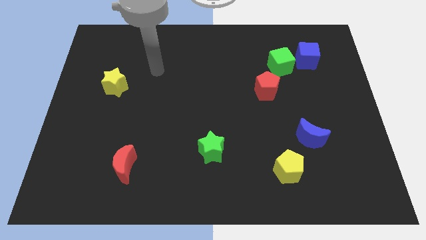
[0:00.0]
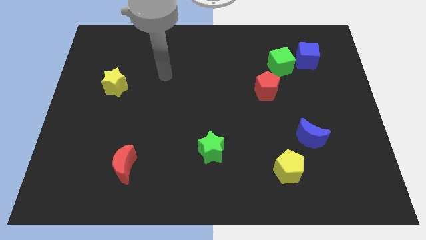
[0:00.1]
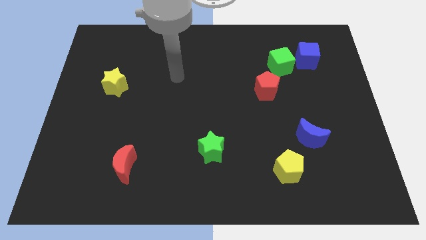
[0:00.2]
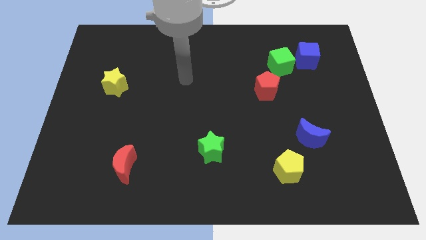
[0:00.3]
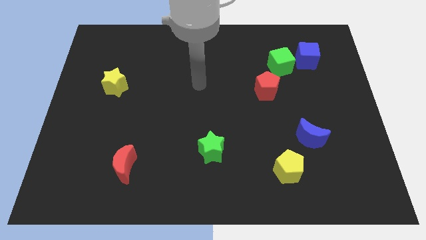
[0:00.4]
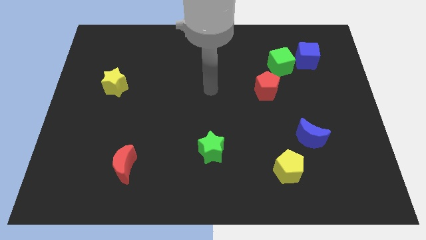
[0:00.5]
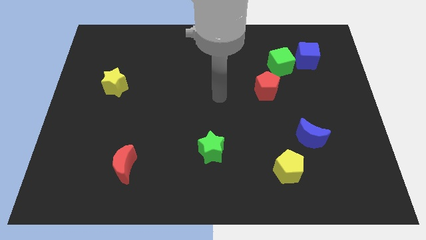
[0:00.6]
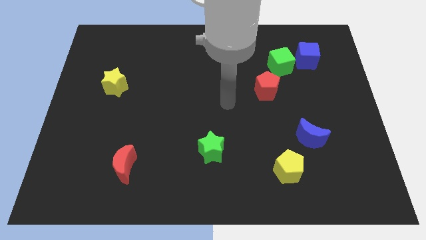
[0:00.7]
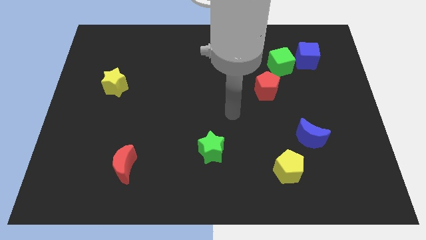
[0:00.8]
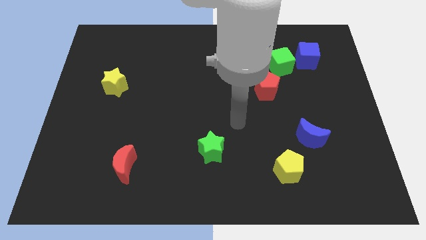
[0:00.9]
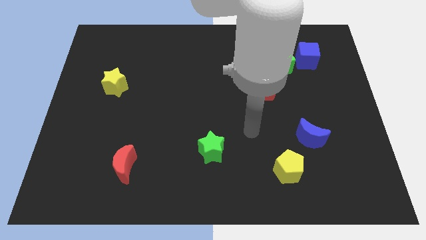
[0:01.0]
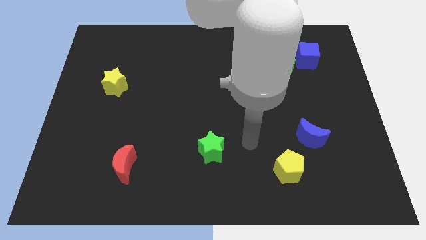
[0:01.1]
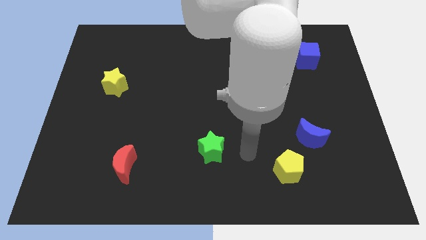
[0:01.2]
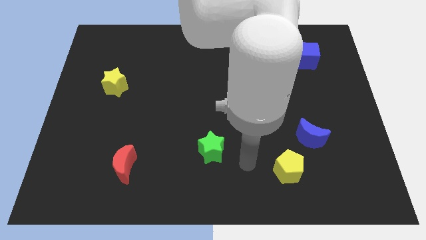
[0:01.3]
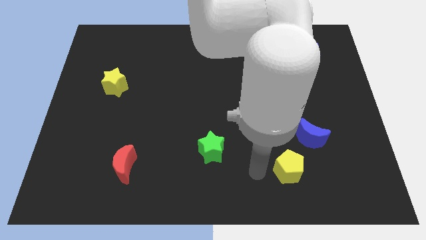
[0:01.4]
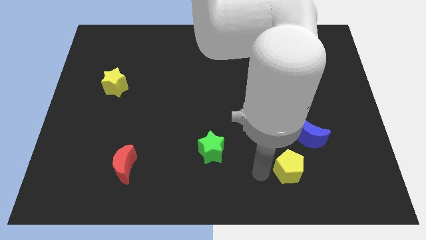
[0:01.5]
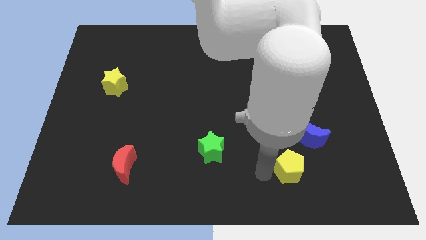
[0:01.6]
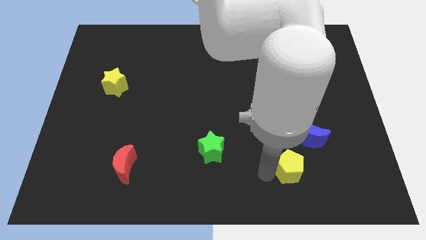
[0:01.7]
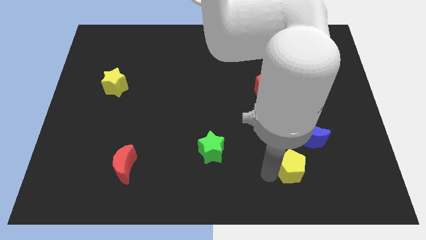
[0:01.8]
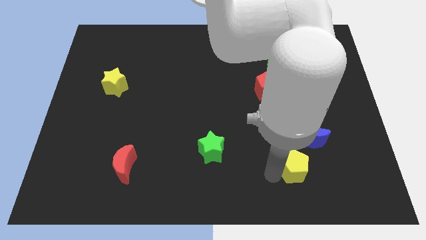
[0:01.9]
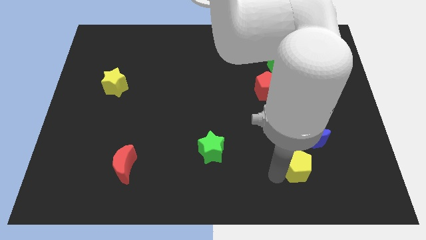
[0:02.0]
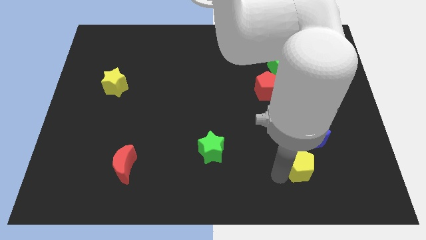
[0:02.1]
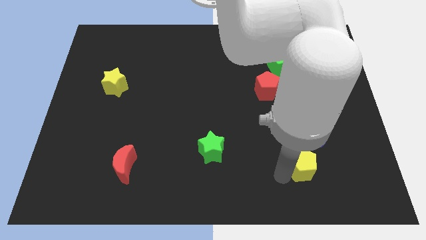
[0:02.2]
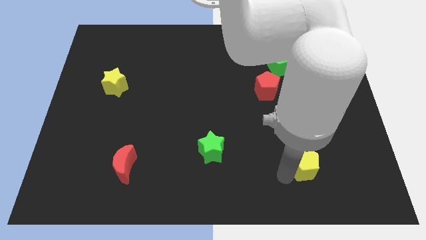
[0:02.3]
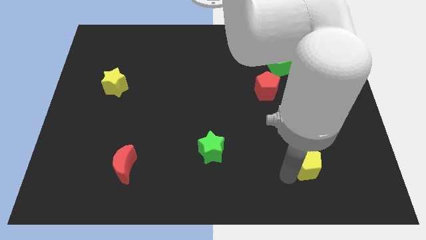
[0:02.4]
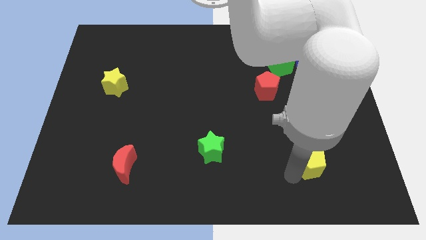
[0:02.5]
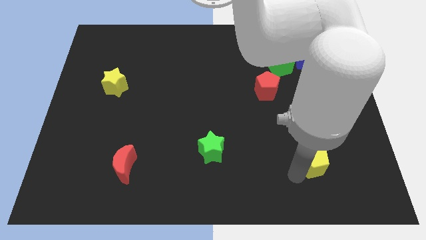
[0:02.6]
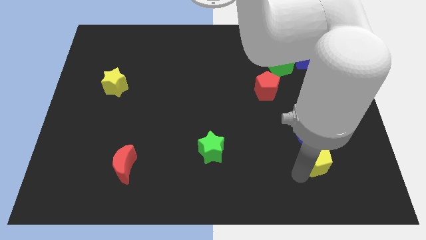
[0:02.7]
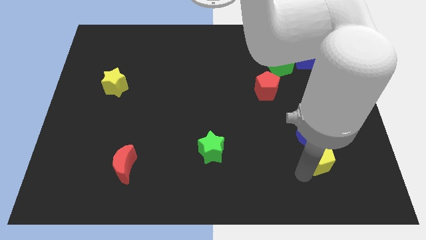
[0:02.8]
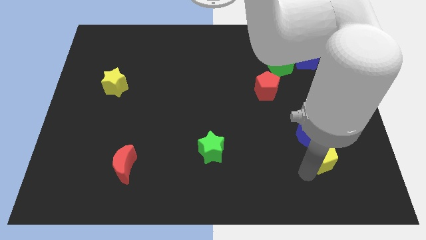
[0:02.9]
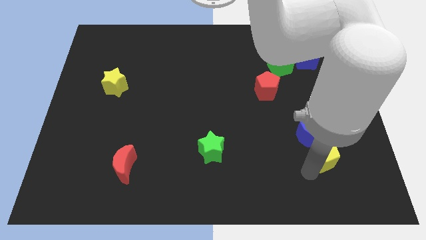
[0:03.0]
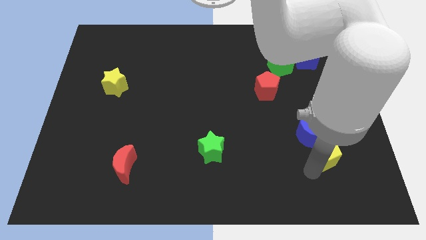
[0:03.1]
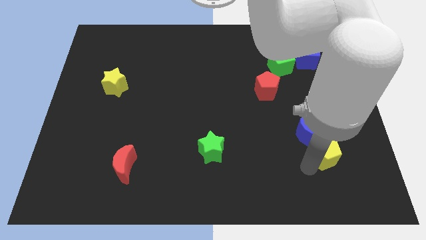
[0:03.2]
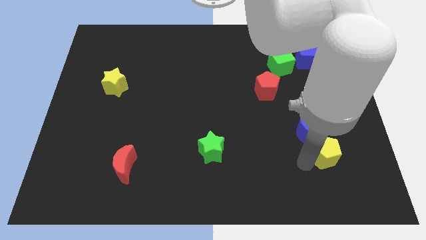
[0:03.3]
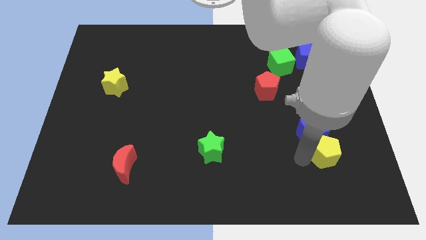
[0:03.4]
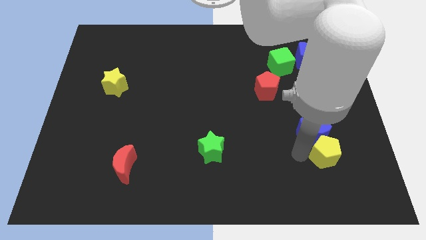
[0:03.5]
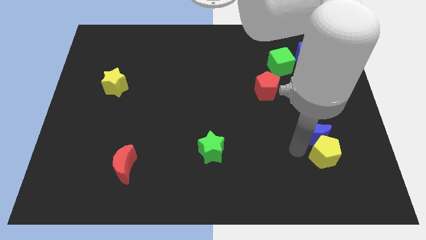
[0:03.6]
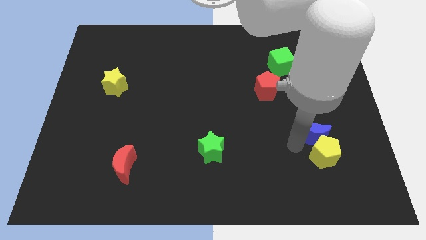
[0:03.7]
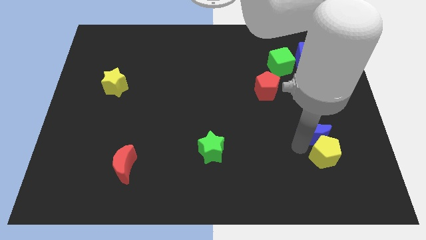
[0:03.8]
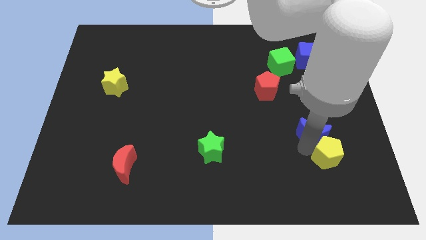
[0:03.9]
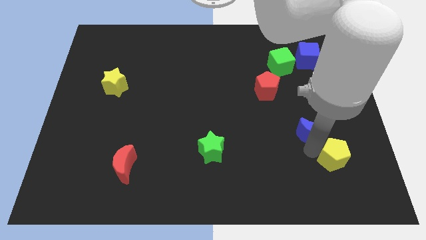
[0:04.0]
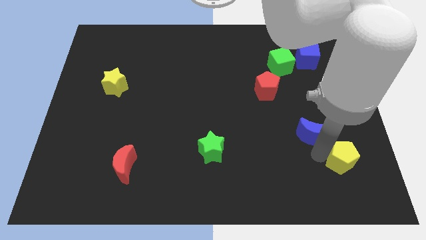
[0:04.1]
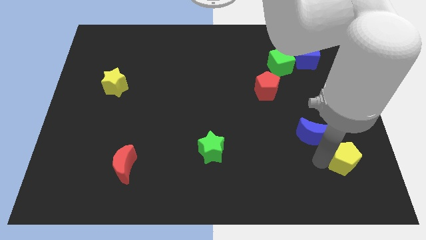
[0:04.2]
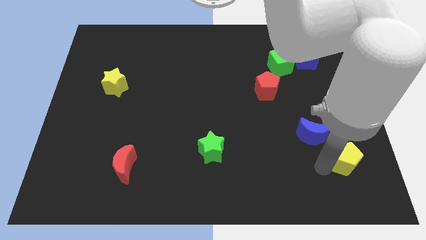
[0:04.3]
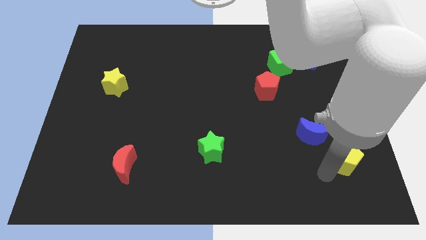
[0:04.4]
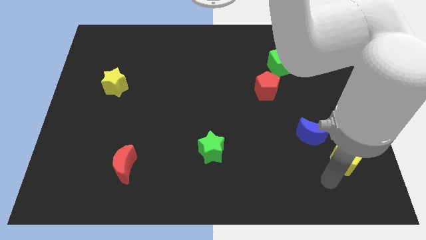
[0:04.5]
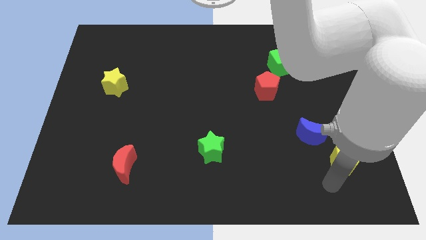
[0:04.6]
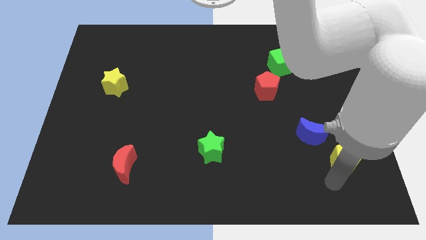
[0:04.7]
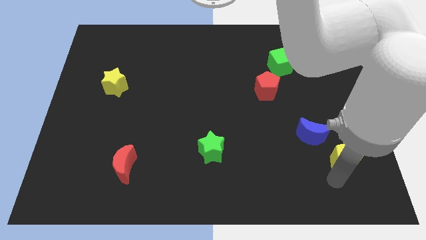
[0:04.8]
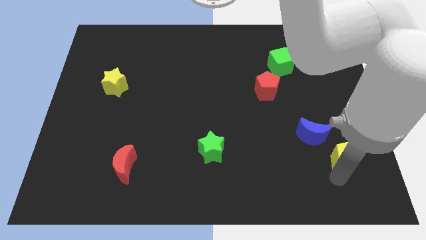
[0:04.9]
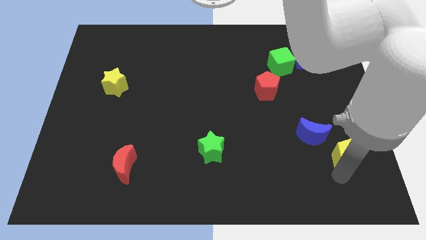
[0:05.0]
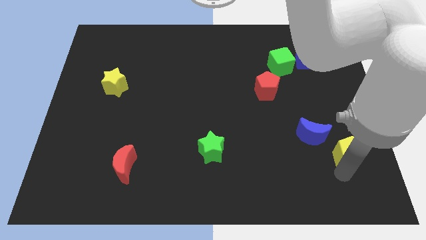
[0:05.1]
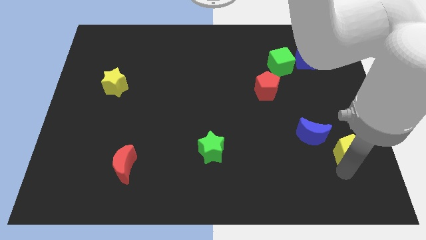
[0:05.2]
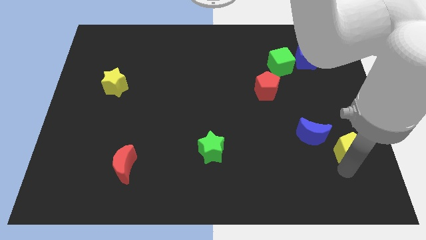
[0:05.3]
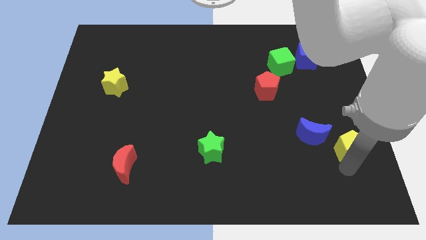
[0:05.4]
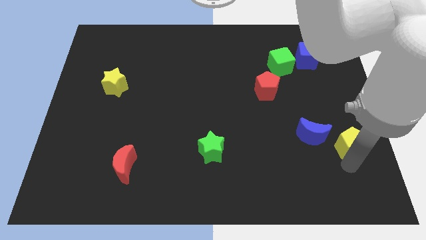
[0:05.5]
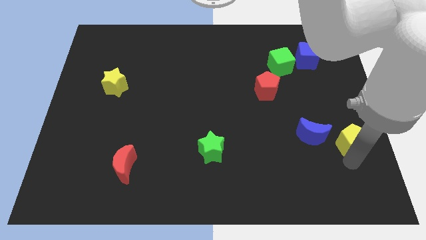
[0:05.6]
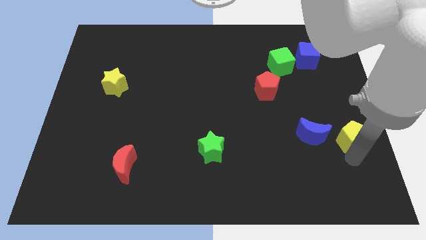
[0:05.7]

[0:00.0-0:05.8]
push the yellow pentagon to the right side of the board

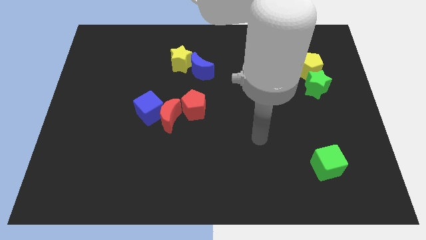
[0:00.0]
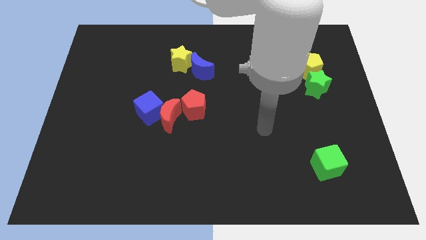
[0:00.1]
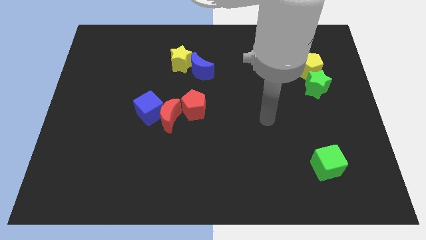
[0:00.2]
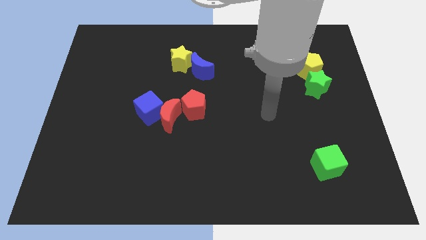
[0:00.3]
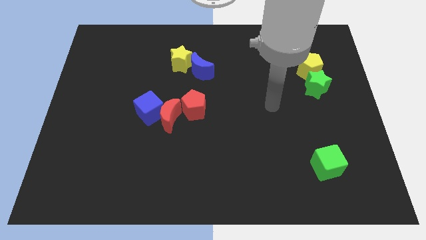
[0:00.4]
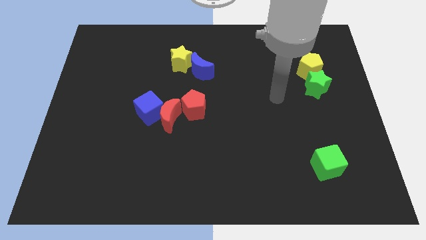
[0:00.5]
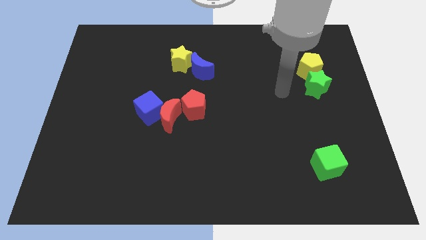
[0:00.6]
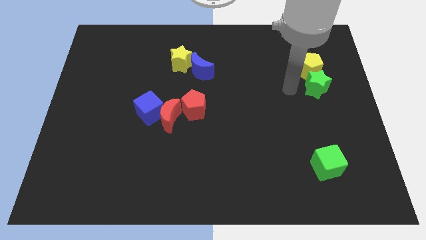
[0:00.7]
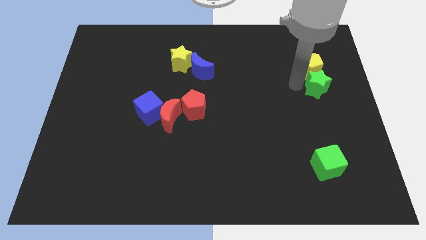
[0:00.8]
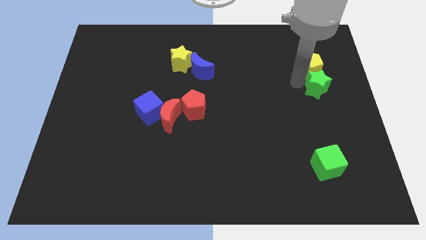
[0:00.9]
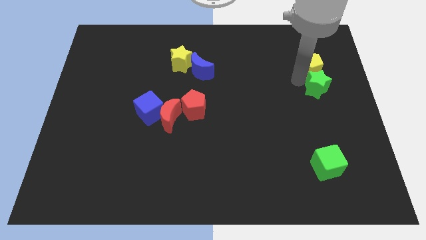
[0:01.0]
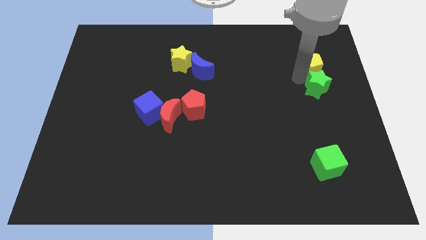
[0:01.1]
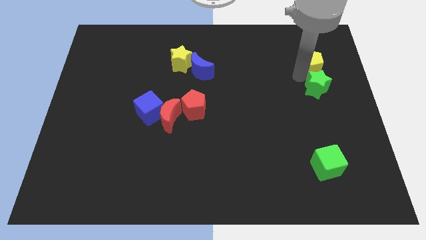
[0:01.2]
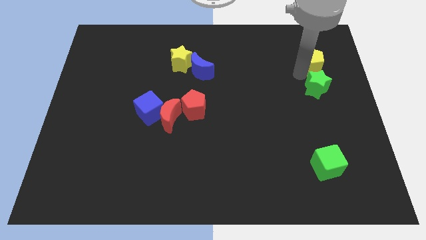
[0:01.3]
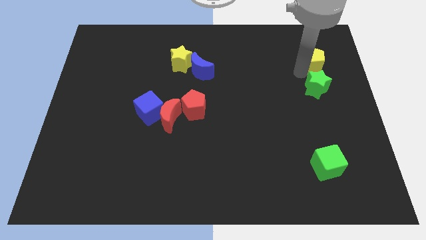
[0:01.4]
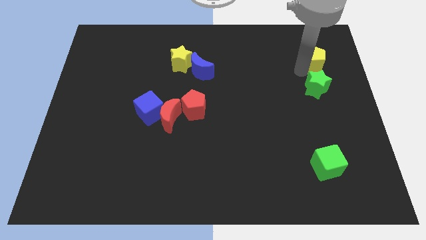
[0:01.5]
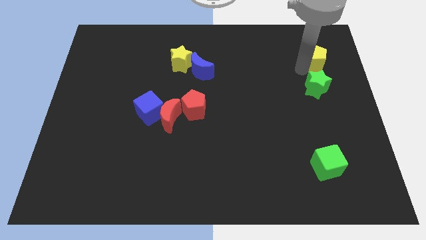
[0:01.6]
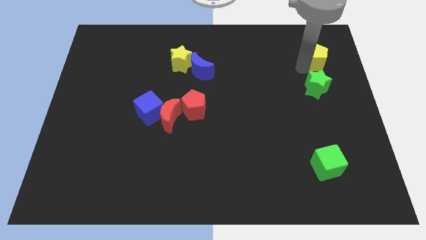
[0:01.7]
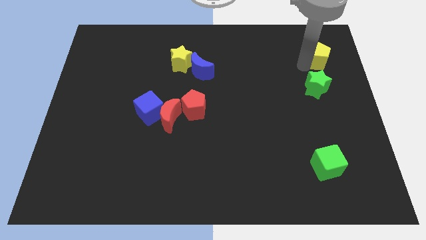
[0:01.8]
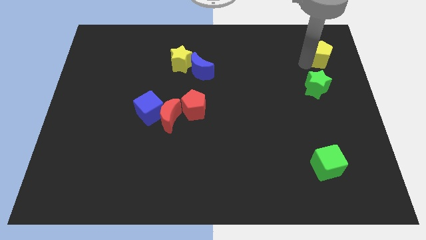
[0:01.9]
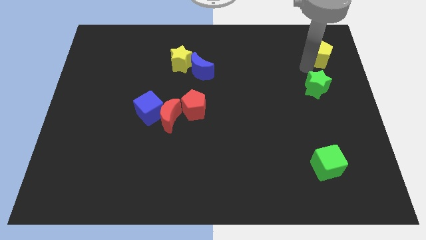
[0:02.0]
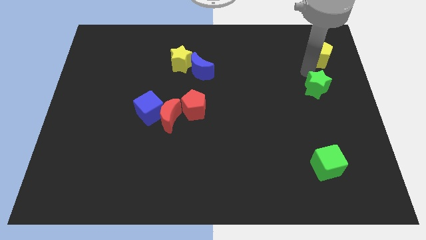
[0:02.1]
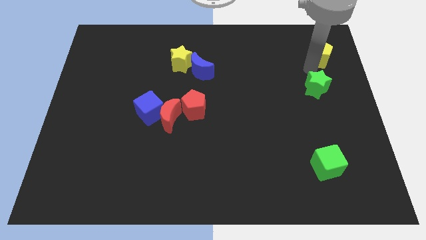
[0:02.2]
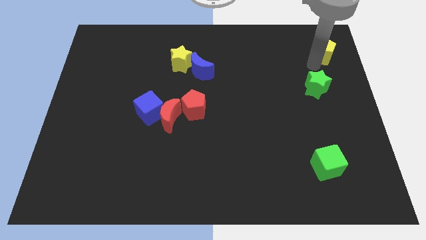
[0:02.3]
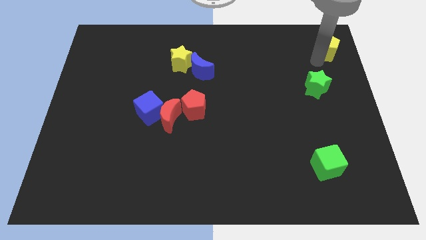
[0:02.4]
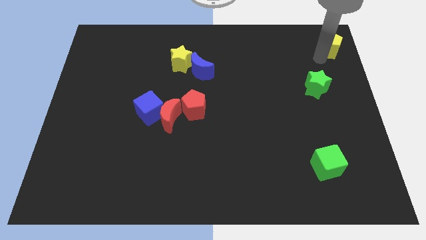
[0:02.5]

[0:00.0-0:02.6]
move the yellow pentagon to the upper right corner
